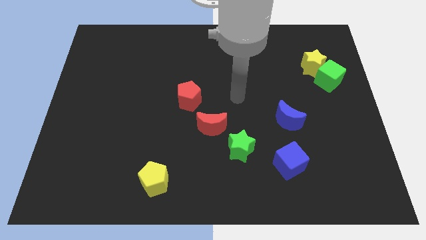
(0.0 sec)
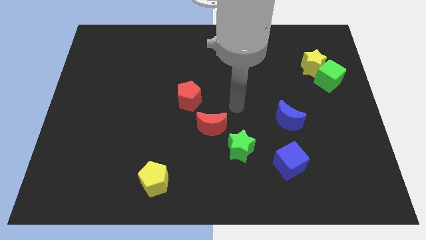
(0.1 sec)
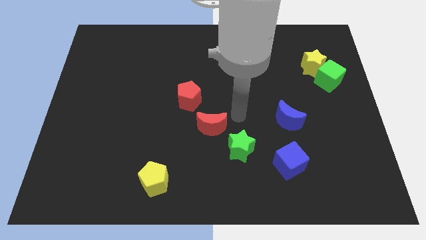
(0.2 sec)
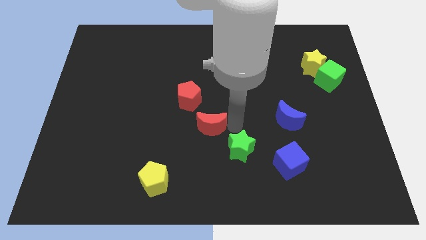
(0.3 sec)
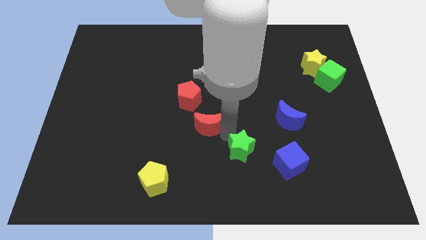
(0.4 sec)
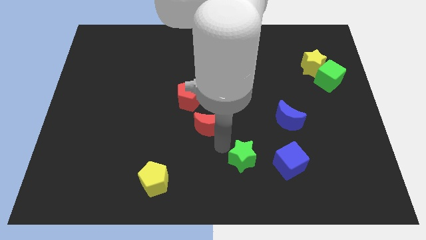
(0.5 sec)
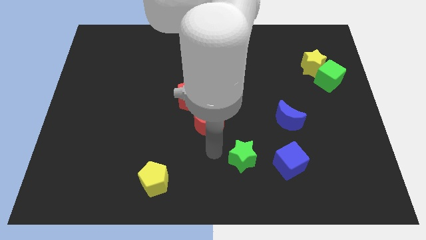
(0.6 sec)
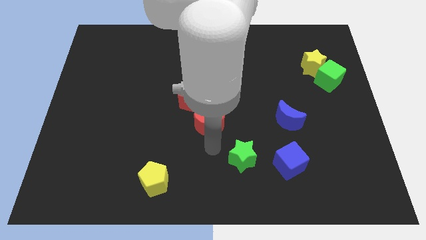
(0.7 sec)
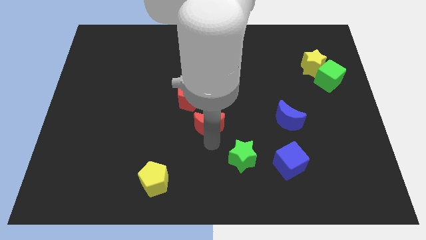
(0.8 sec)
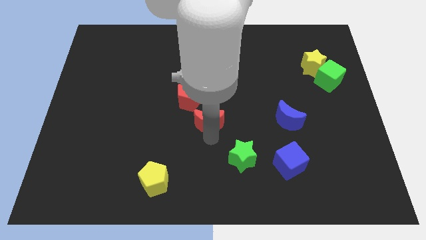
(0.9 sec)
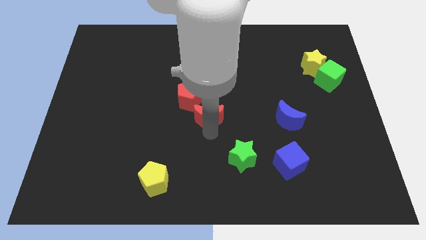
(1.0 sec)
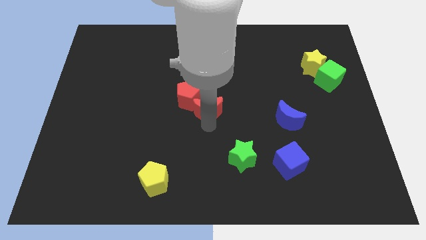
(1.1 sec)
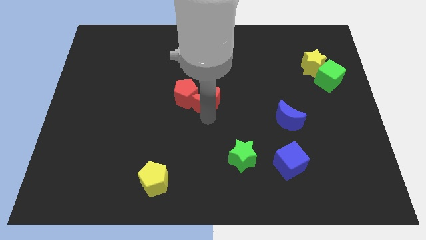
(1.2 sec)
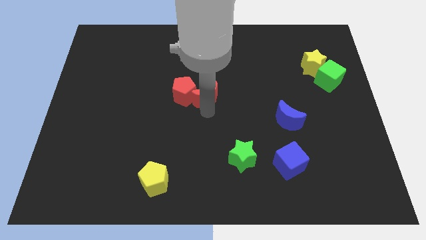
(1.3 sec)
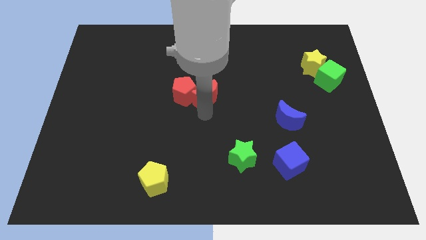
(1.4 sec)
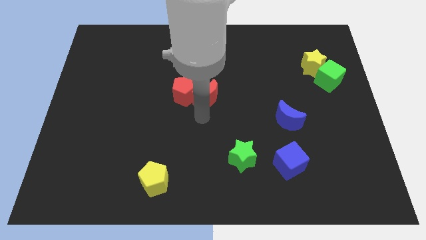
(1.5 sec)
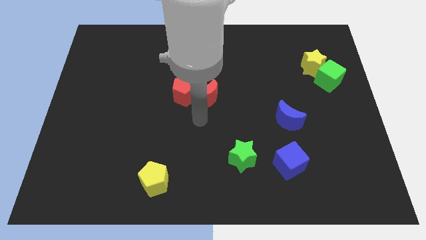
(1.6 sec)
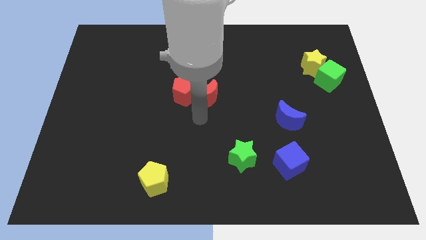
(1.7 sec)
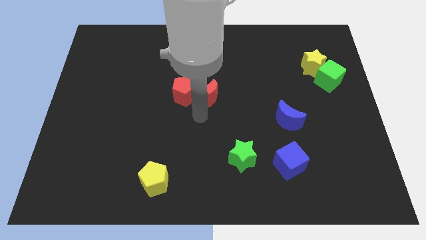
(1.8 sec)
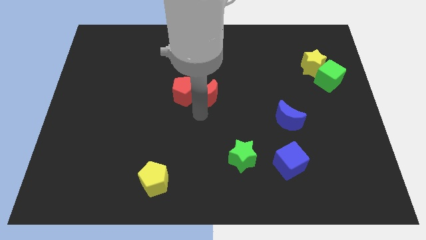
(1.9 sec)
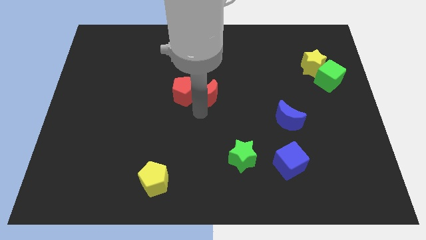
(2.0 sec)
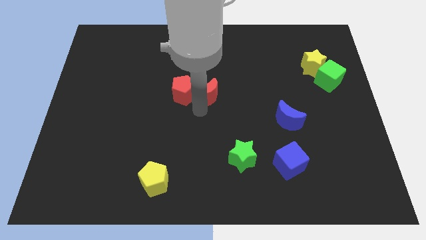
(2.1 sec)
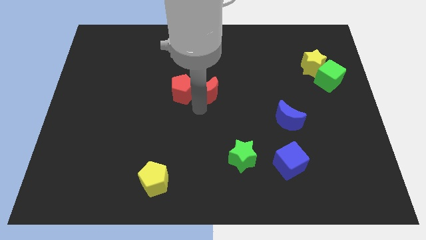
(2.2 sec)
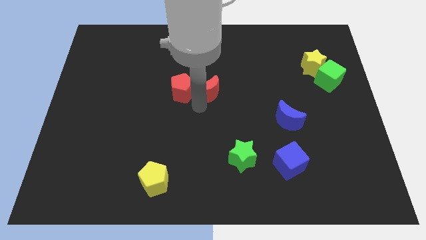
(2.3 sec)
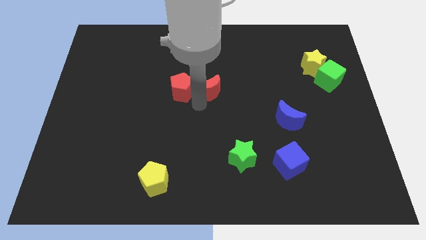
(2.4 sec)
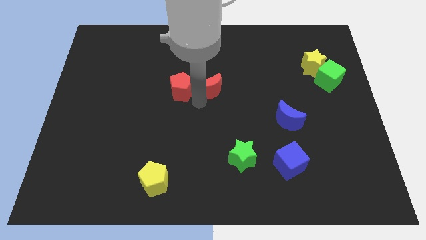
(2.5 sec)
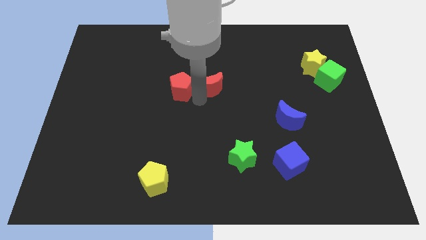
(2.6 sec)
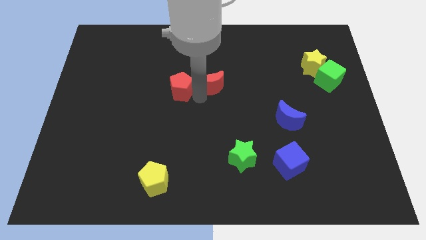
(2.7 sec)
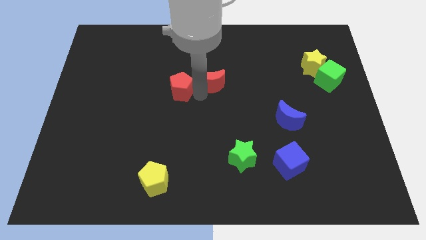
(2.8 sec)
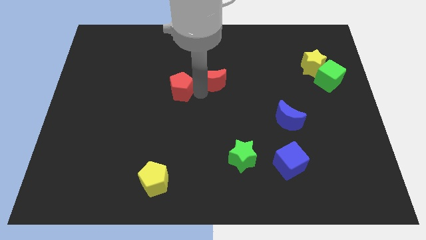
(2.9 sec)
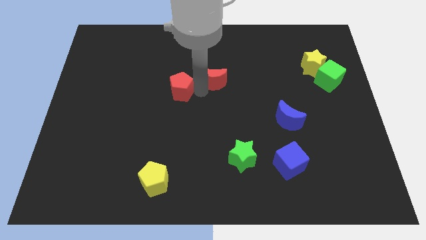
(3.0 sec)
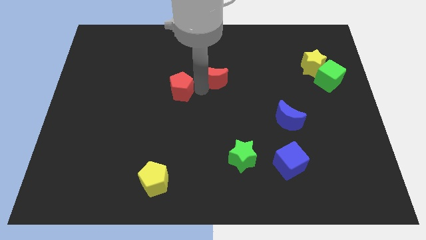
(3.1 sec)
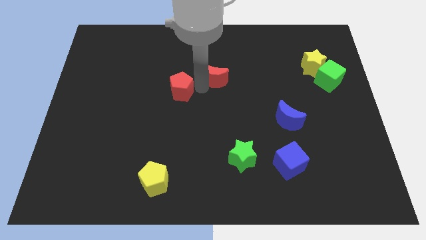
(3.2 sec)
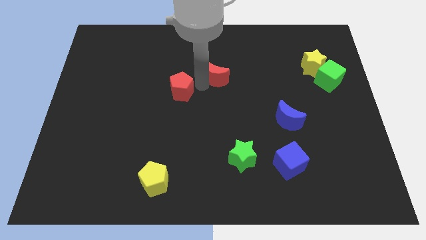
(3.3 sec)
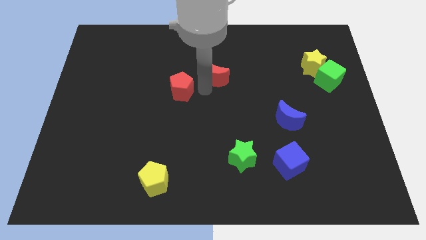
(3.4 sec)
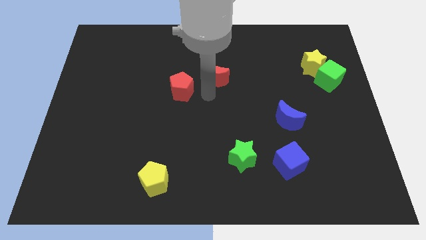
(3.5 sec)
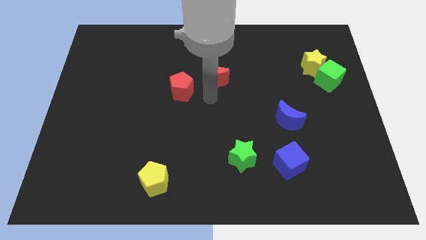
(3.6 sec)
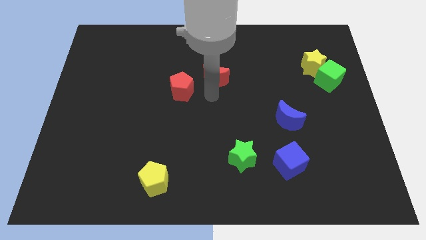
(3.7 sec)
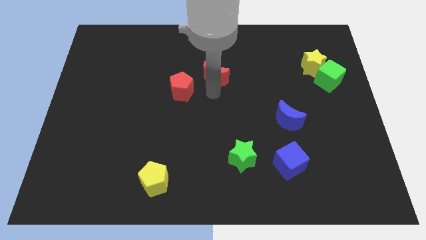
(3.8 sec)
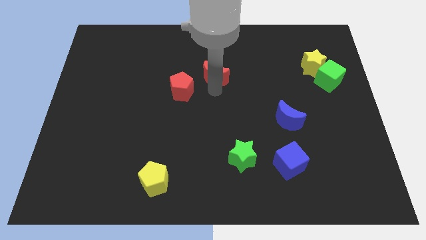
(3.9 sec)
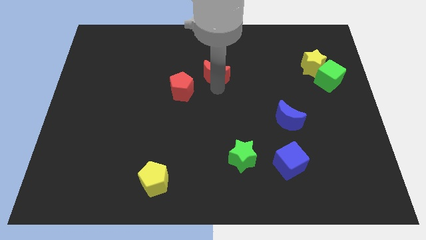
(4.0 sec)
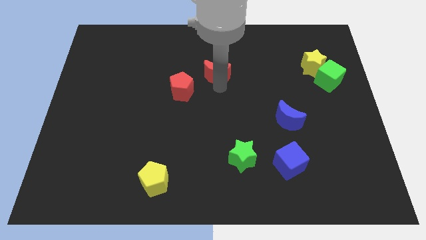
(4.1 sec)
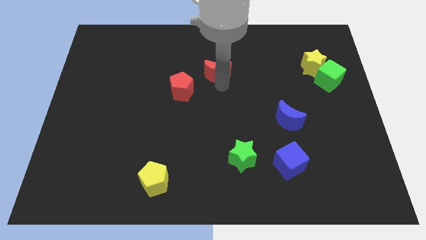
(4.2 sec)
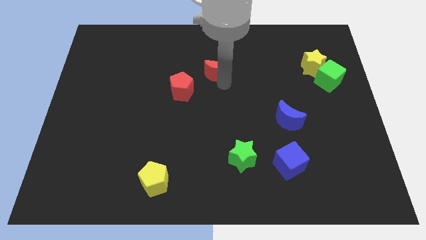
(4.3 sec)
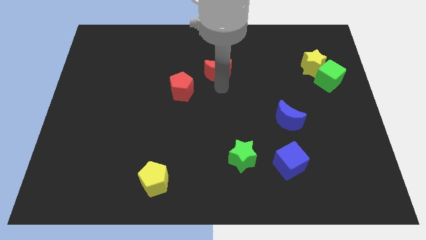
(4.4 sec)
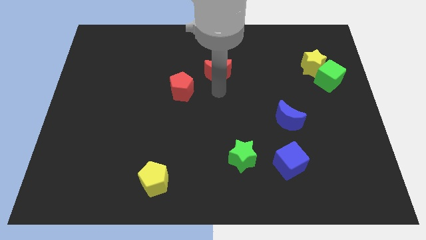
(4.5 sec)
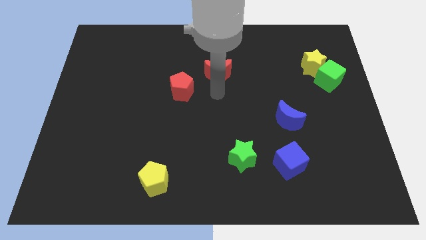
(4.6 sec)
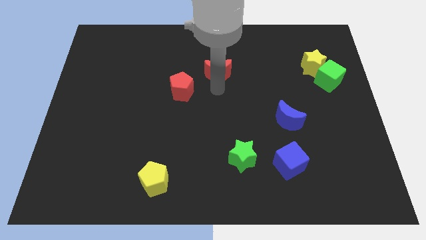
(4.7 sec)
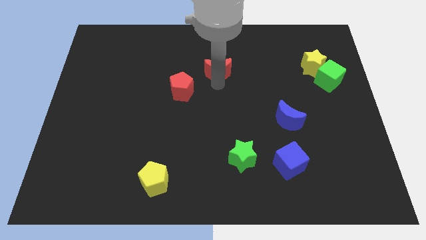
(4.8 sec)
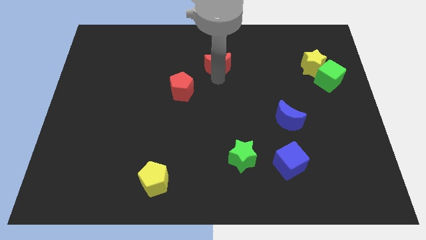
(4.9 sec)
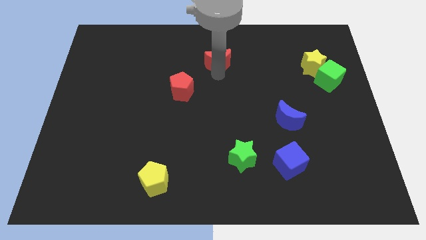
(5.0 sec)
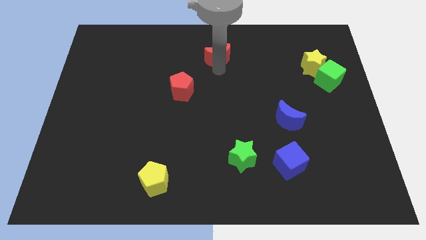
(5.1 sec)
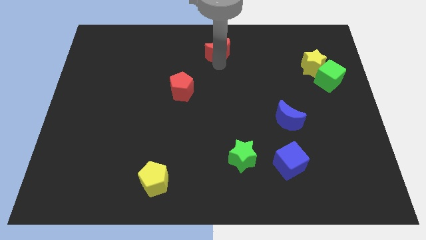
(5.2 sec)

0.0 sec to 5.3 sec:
slide the red moon to the top side

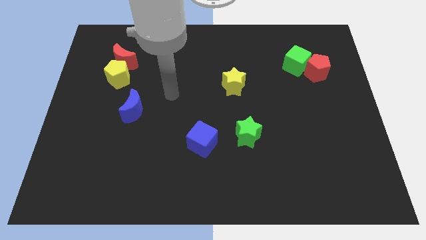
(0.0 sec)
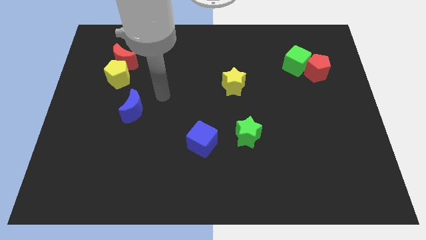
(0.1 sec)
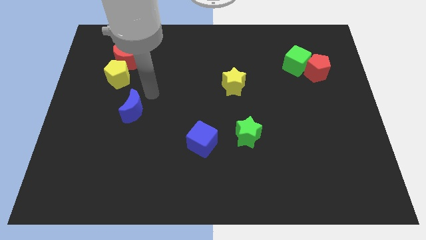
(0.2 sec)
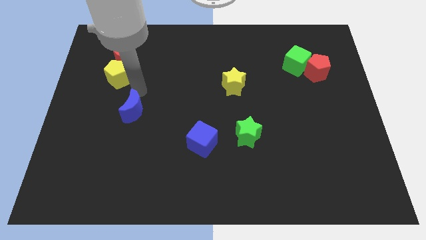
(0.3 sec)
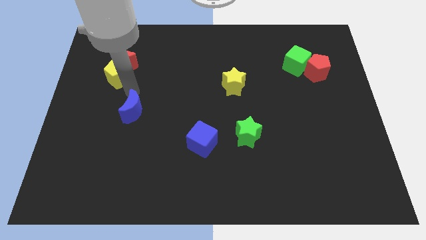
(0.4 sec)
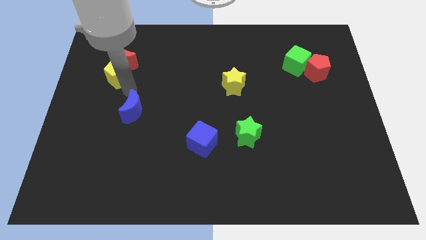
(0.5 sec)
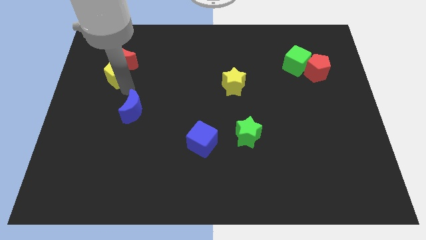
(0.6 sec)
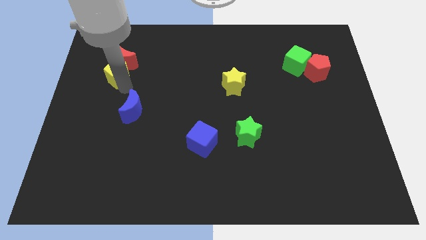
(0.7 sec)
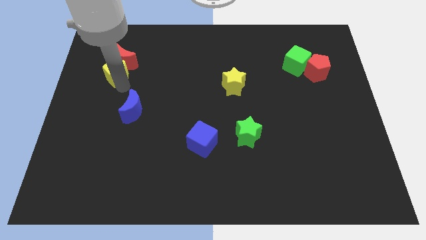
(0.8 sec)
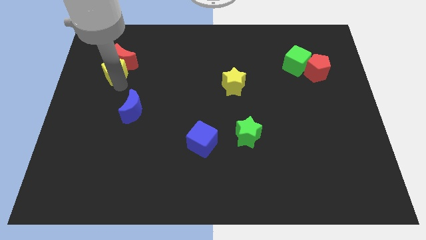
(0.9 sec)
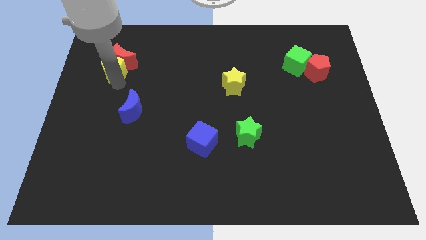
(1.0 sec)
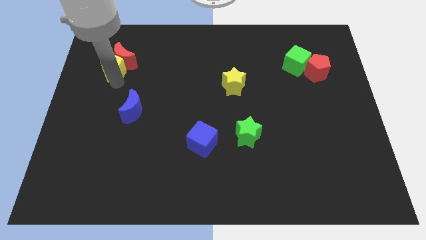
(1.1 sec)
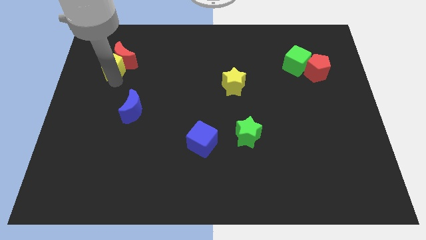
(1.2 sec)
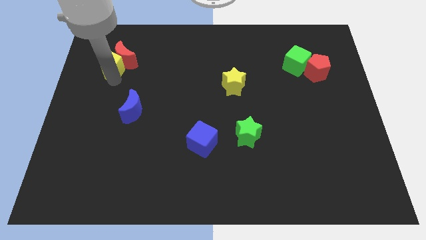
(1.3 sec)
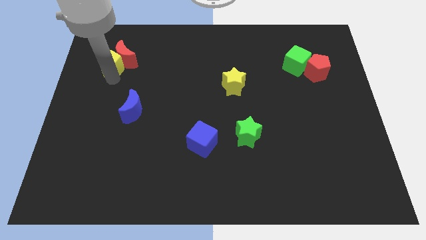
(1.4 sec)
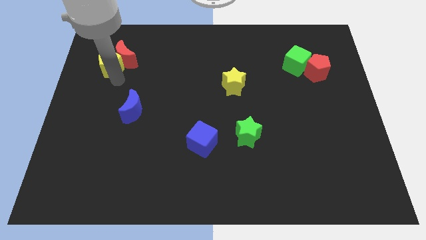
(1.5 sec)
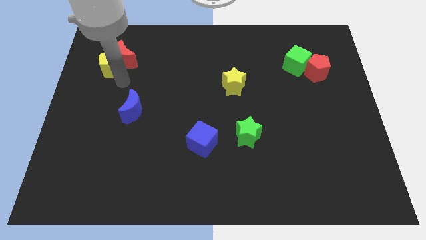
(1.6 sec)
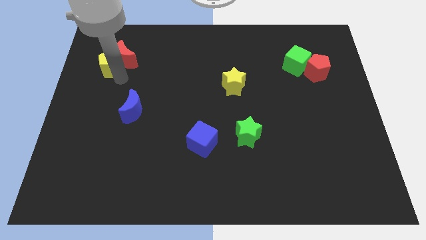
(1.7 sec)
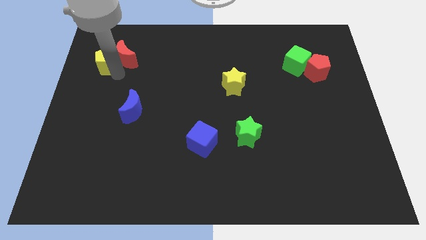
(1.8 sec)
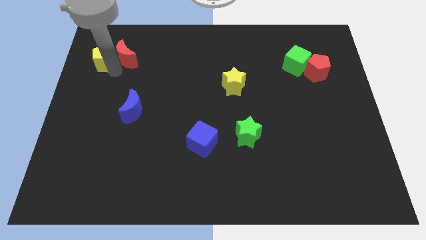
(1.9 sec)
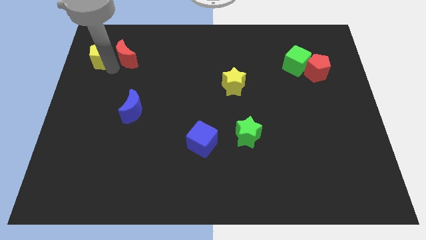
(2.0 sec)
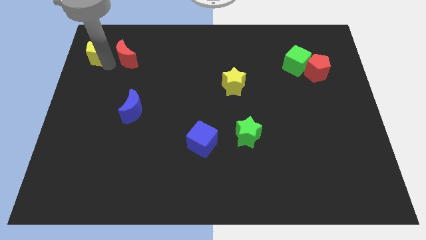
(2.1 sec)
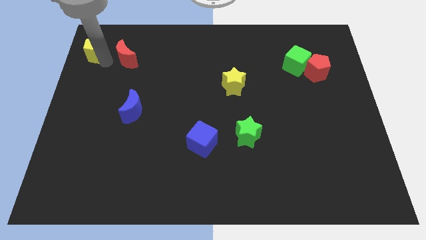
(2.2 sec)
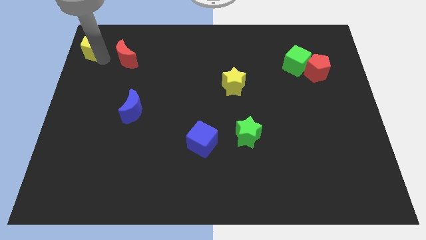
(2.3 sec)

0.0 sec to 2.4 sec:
put the yellow pentagon to the top left corner
